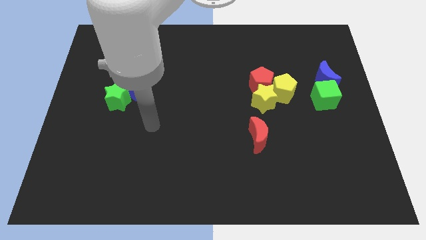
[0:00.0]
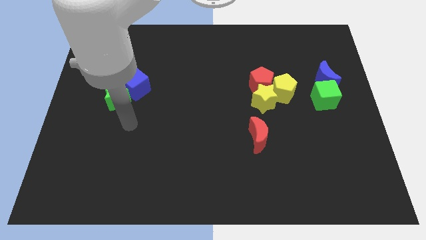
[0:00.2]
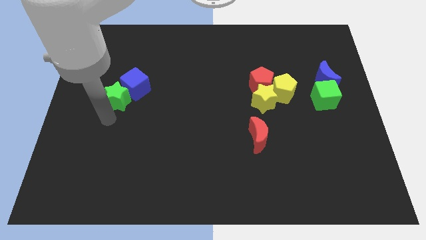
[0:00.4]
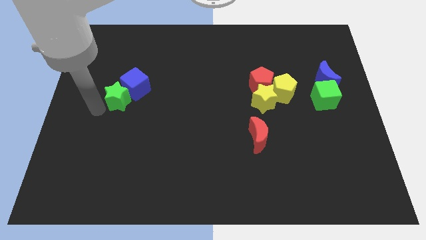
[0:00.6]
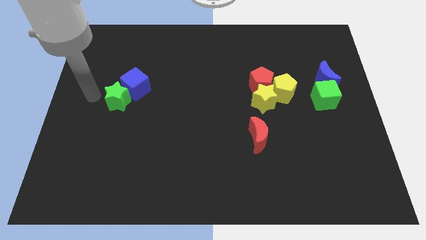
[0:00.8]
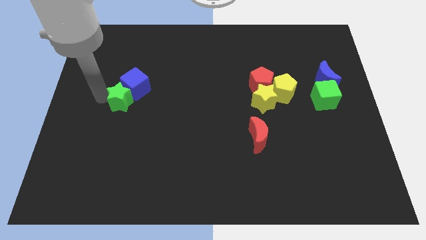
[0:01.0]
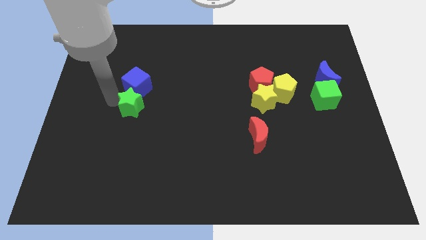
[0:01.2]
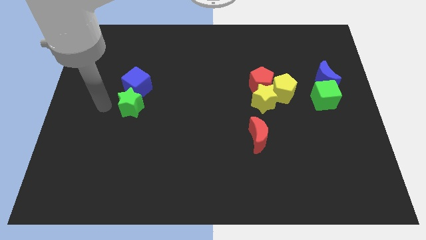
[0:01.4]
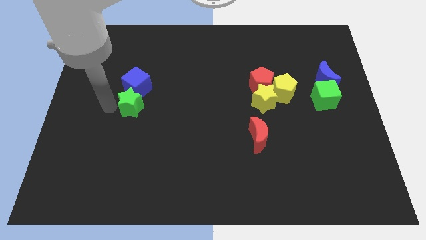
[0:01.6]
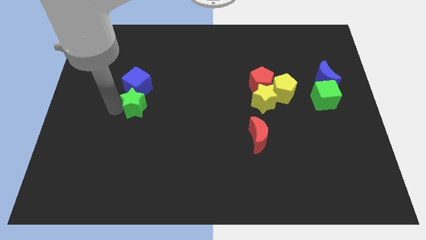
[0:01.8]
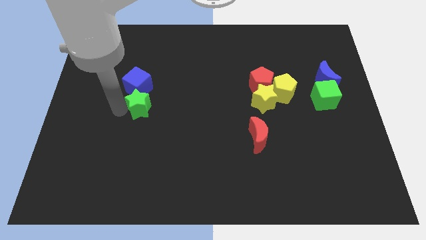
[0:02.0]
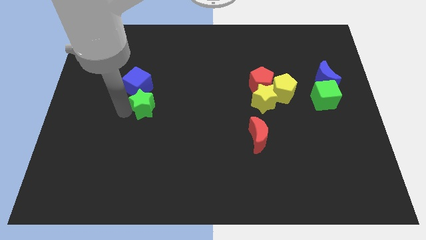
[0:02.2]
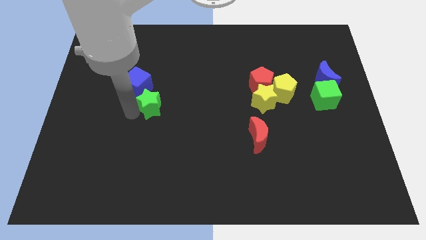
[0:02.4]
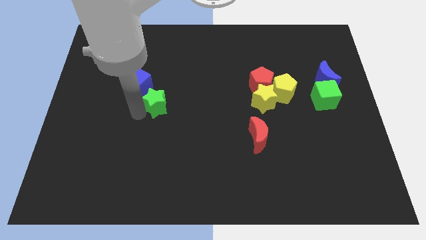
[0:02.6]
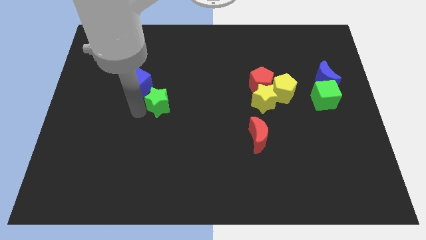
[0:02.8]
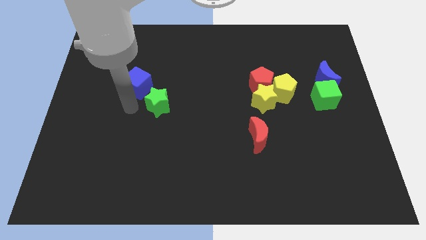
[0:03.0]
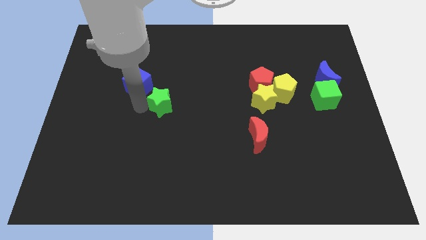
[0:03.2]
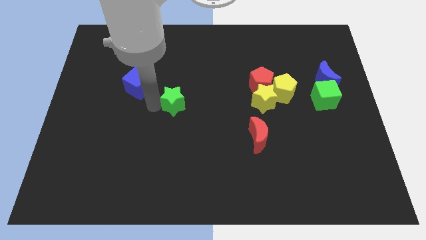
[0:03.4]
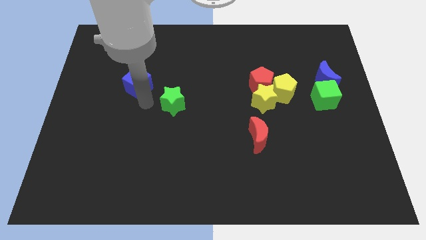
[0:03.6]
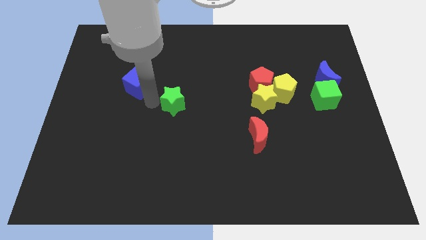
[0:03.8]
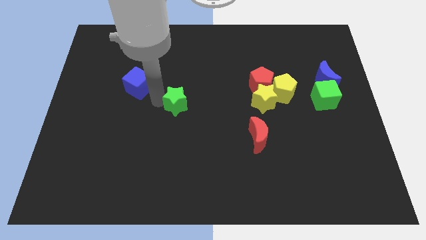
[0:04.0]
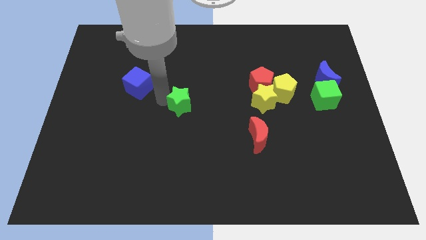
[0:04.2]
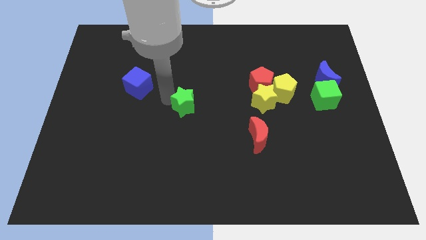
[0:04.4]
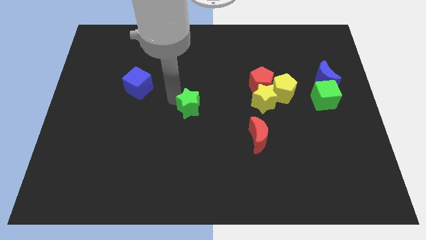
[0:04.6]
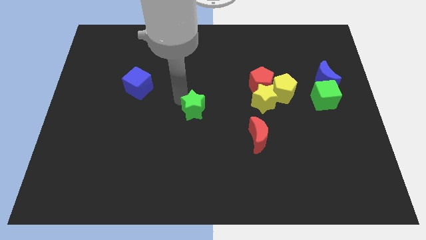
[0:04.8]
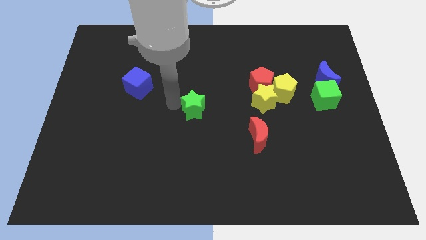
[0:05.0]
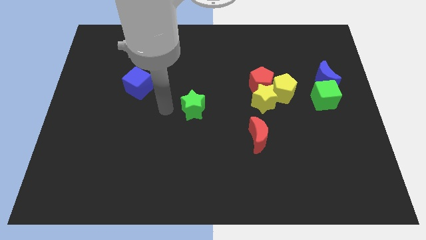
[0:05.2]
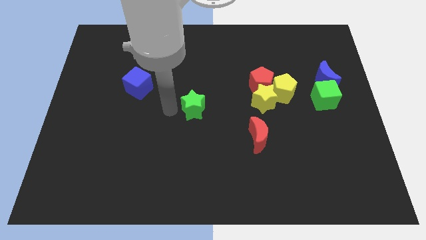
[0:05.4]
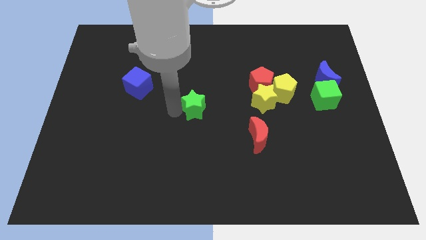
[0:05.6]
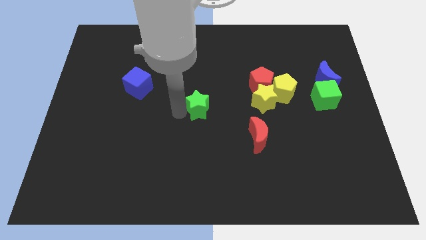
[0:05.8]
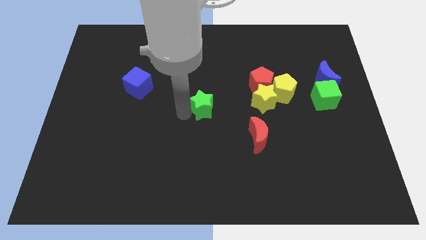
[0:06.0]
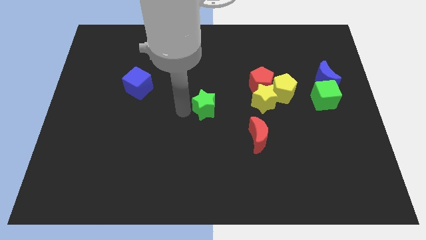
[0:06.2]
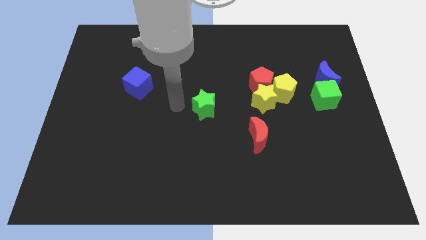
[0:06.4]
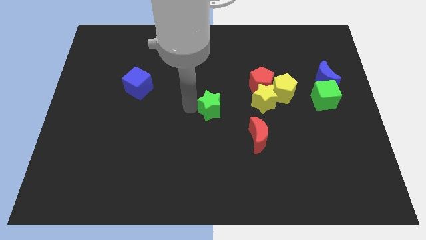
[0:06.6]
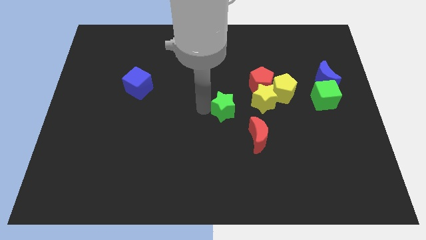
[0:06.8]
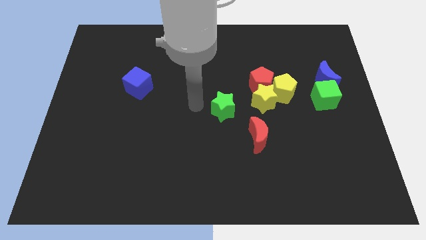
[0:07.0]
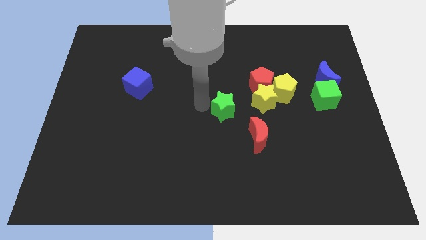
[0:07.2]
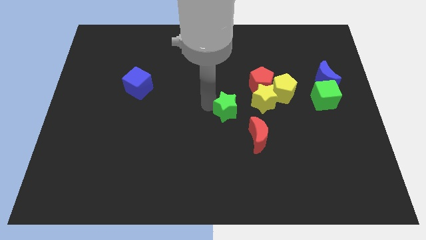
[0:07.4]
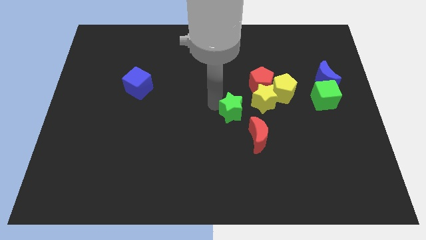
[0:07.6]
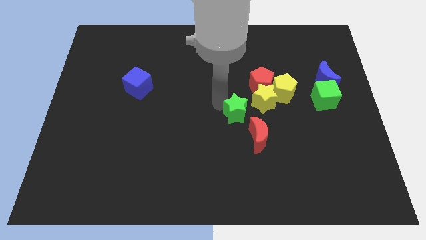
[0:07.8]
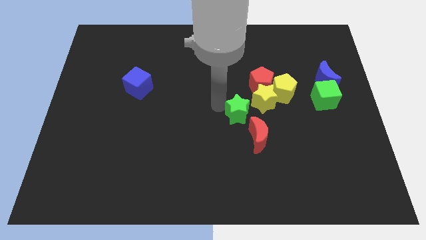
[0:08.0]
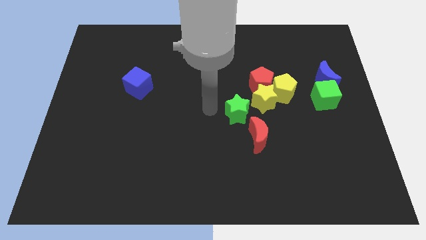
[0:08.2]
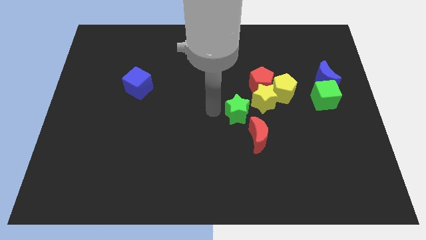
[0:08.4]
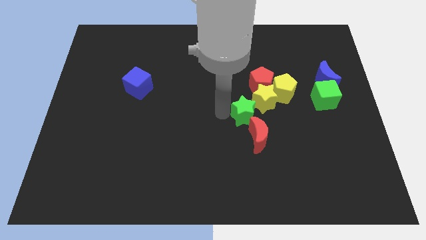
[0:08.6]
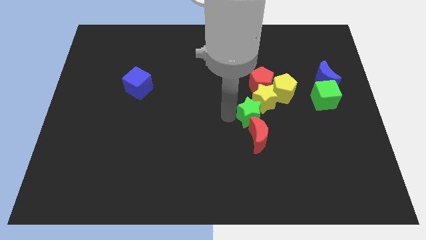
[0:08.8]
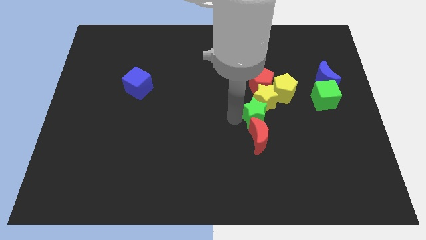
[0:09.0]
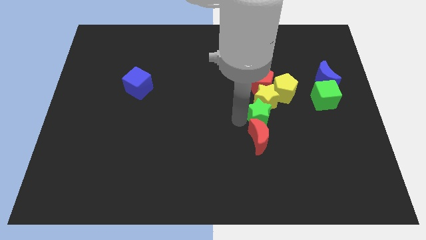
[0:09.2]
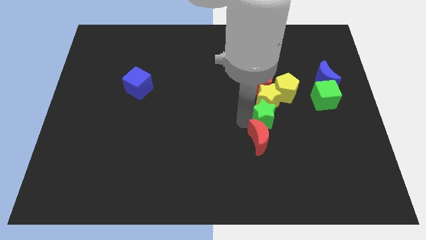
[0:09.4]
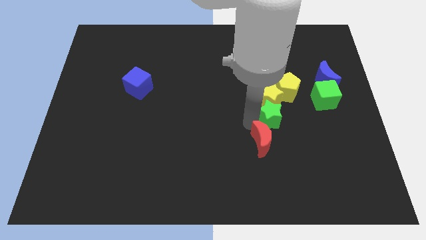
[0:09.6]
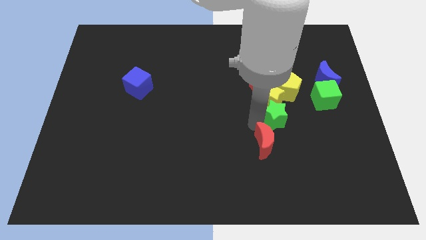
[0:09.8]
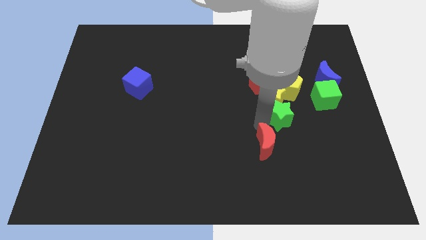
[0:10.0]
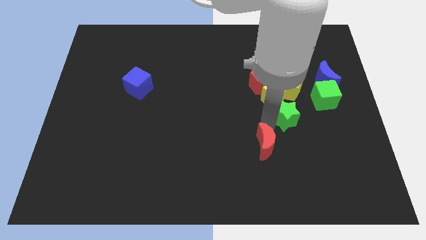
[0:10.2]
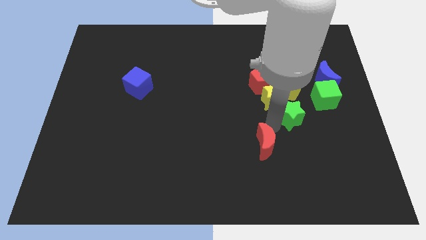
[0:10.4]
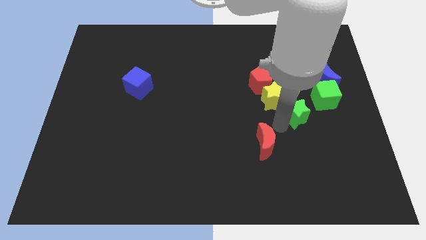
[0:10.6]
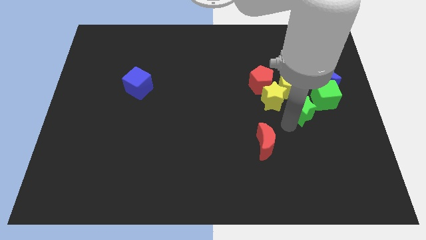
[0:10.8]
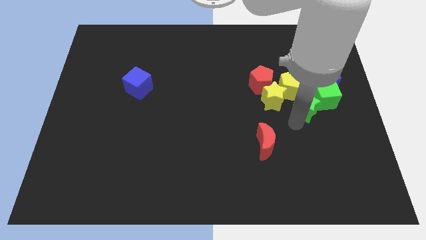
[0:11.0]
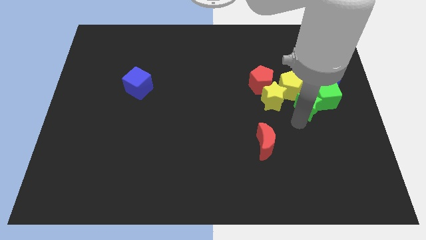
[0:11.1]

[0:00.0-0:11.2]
slide the green star next to the green cube
